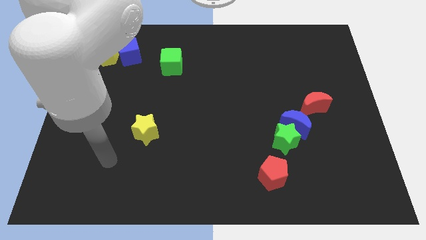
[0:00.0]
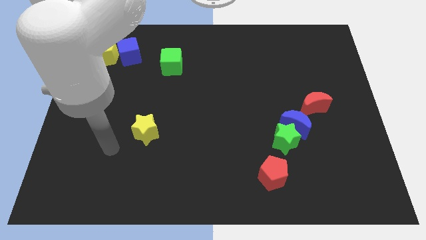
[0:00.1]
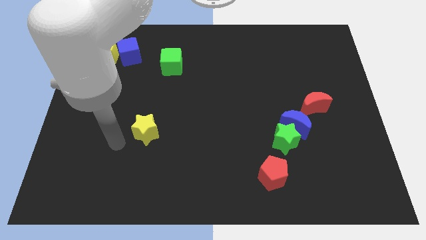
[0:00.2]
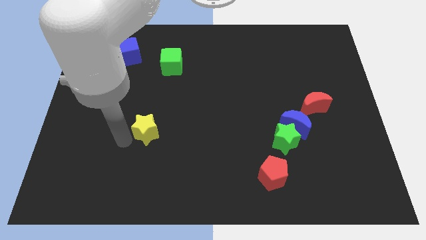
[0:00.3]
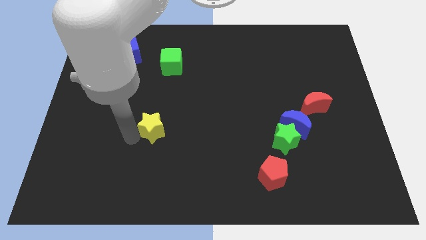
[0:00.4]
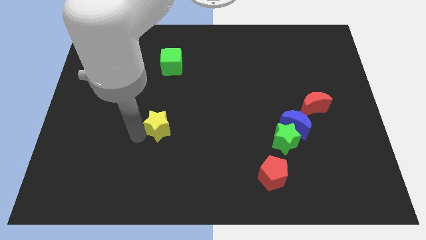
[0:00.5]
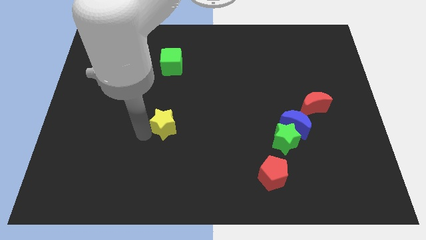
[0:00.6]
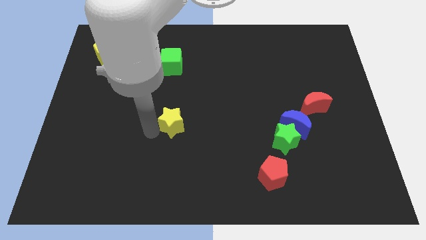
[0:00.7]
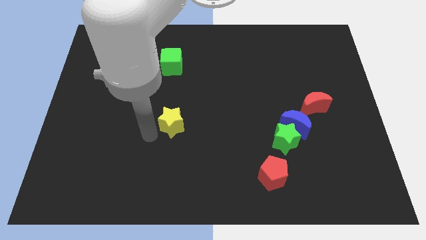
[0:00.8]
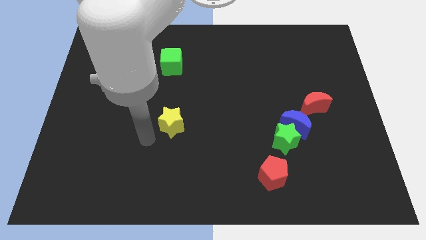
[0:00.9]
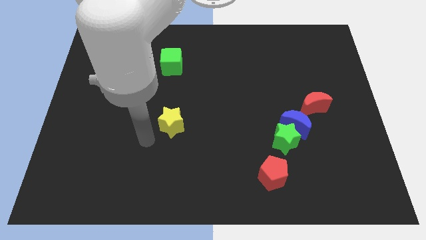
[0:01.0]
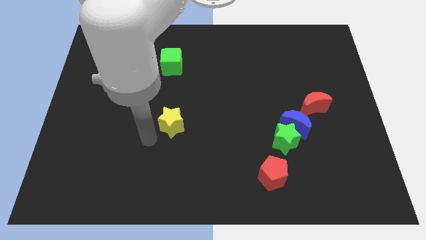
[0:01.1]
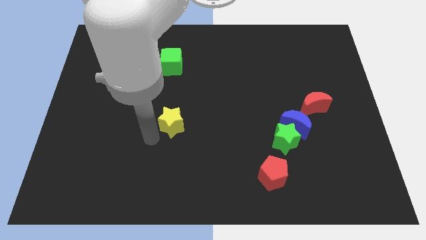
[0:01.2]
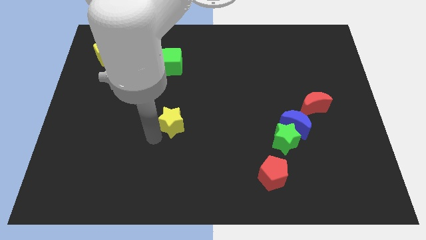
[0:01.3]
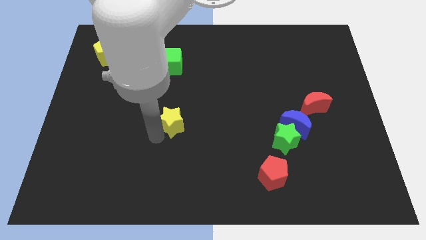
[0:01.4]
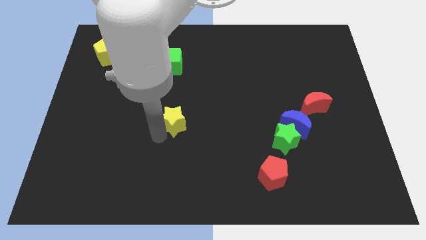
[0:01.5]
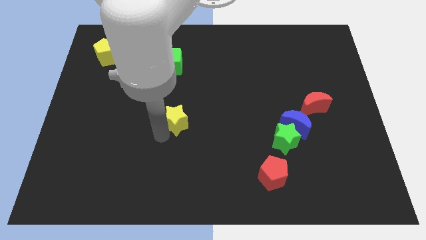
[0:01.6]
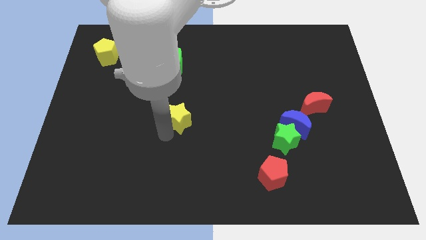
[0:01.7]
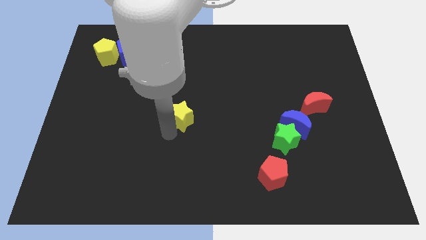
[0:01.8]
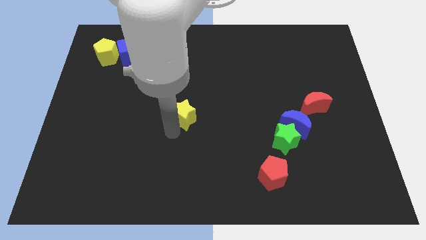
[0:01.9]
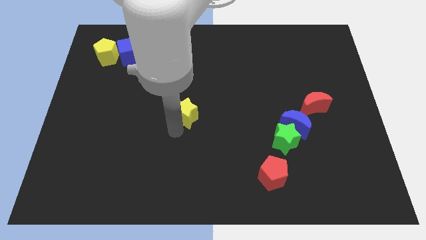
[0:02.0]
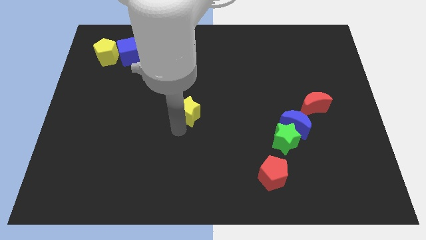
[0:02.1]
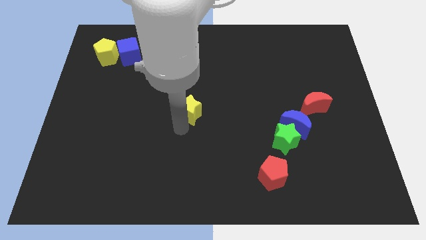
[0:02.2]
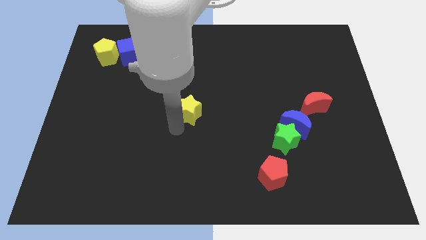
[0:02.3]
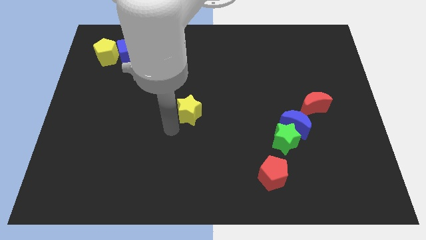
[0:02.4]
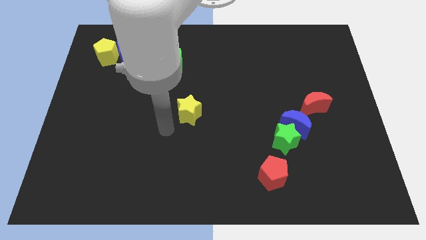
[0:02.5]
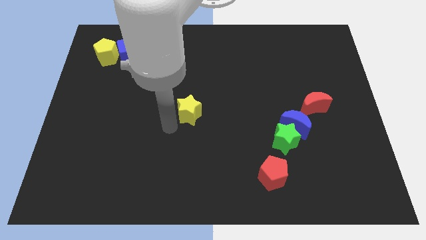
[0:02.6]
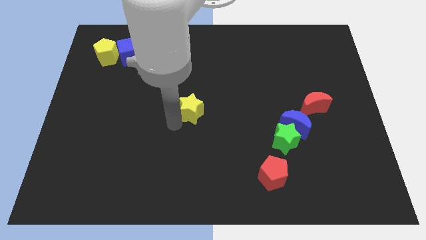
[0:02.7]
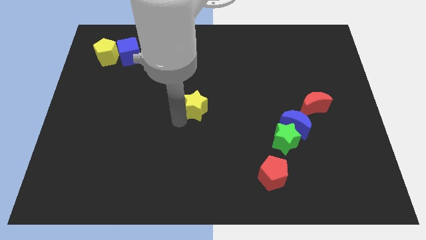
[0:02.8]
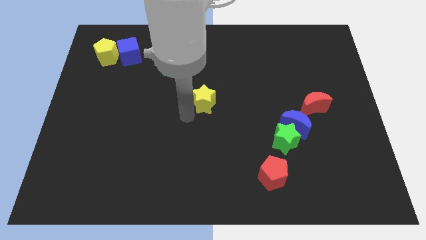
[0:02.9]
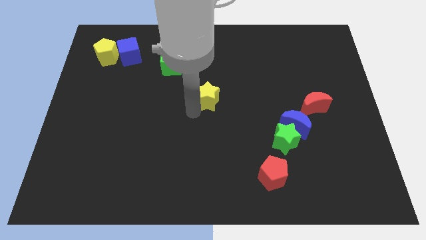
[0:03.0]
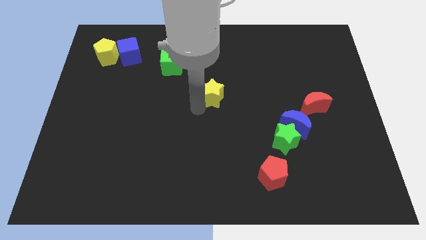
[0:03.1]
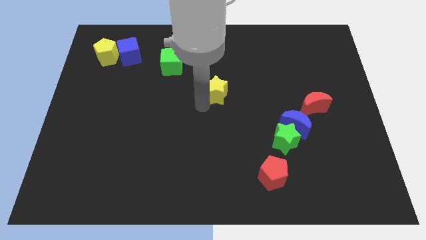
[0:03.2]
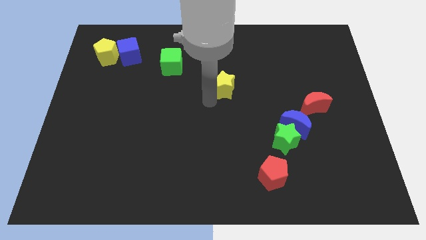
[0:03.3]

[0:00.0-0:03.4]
slide the yellow star up and then right

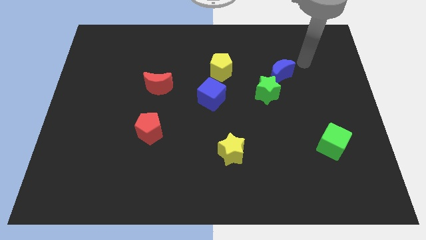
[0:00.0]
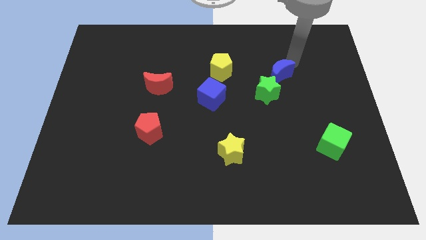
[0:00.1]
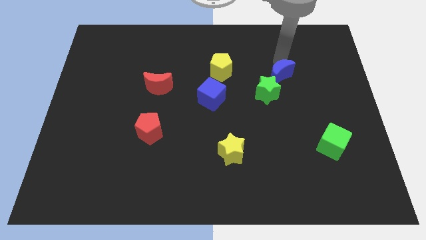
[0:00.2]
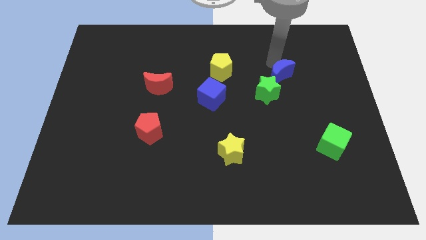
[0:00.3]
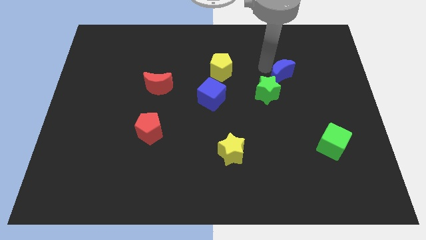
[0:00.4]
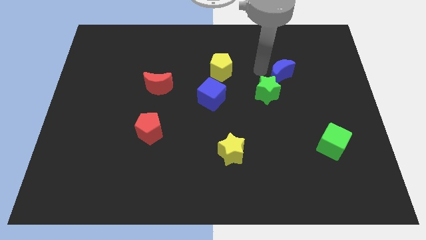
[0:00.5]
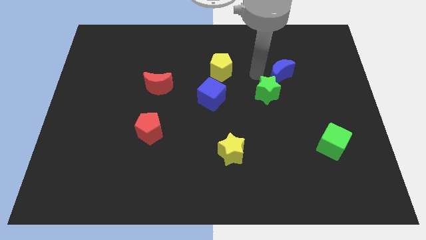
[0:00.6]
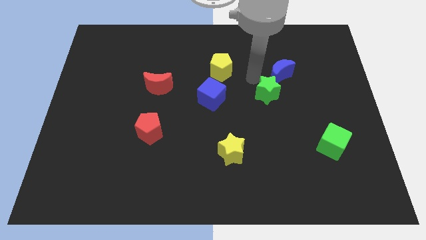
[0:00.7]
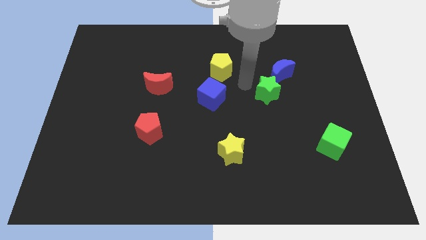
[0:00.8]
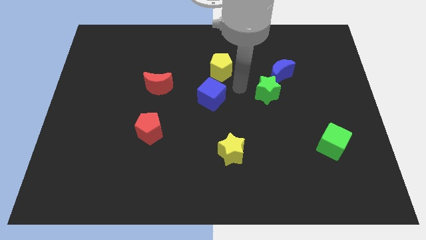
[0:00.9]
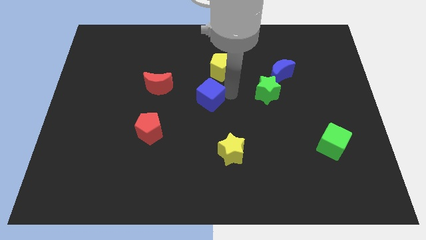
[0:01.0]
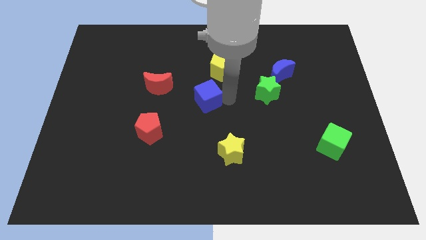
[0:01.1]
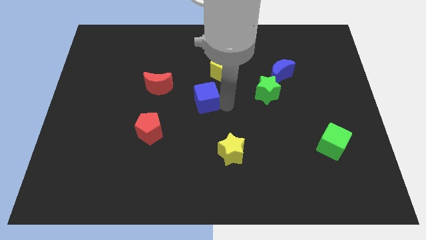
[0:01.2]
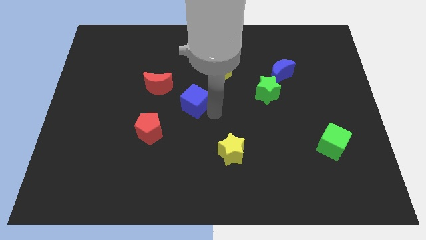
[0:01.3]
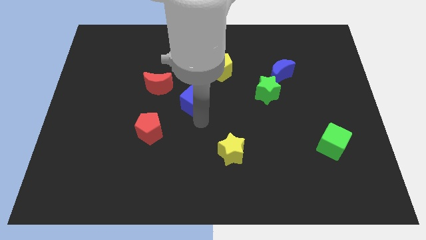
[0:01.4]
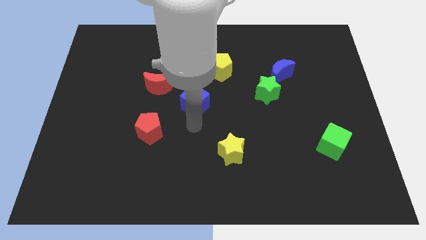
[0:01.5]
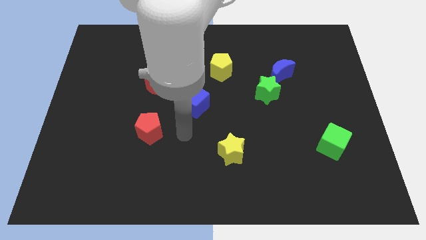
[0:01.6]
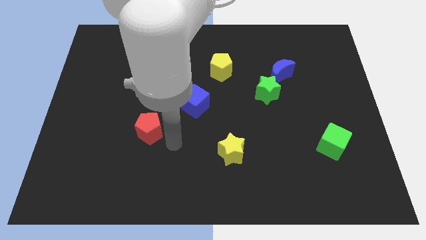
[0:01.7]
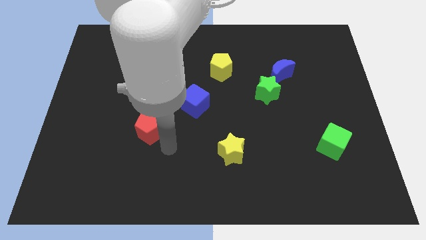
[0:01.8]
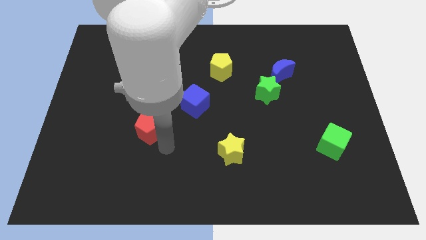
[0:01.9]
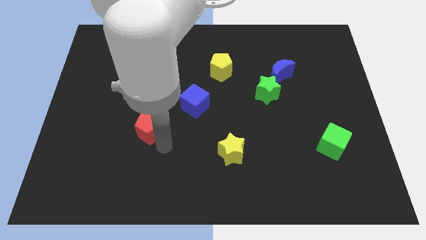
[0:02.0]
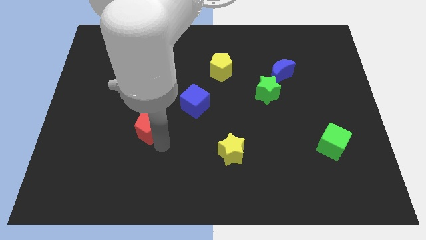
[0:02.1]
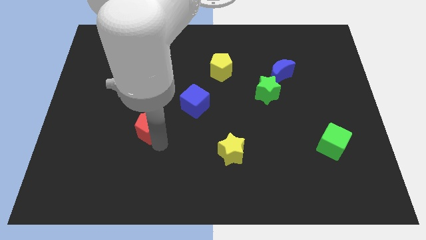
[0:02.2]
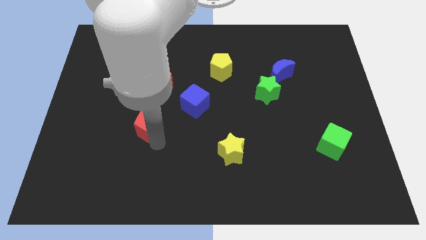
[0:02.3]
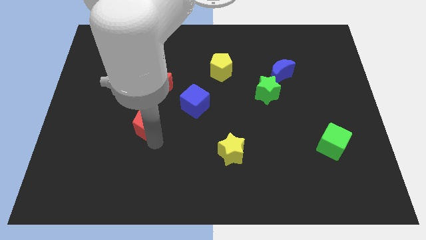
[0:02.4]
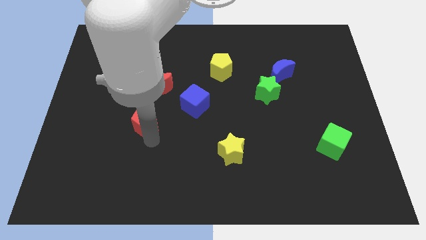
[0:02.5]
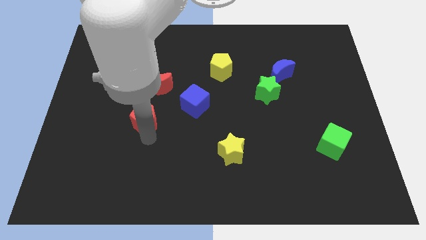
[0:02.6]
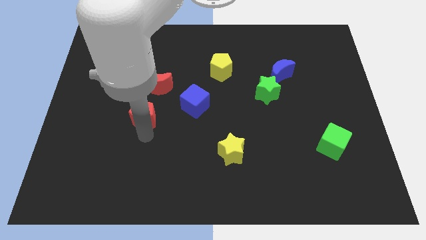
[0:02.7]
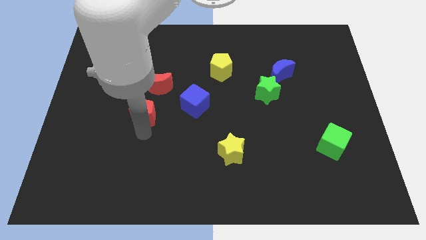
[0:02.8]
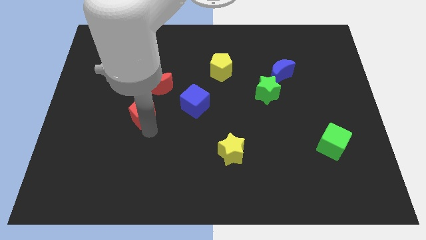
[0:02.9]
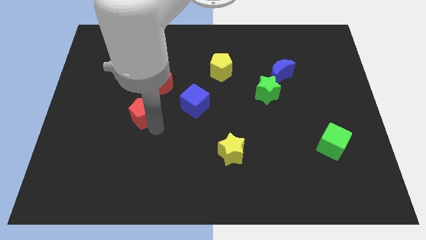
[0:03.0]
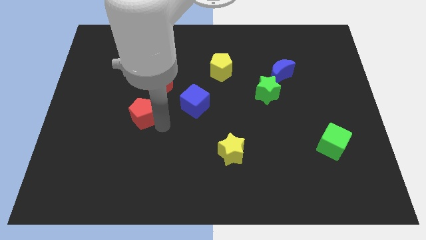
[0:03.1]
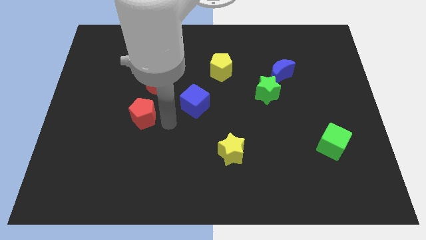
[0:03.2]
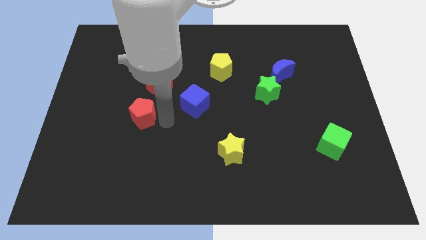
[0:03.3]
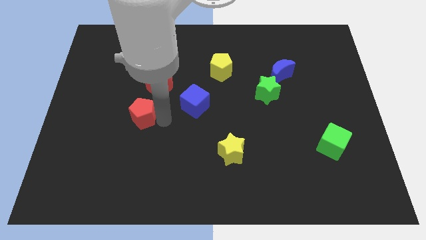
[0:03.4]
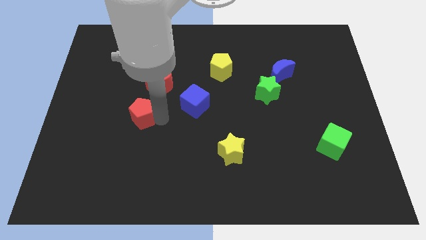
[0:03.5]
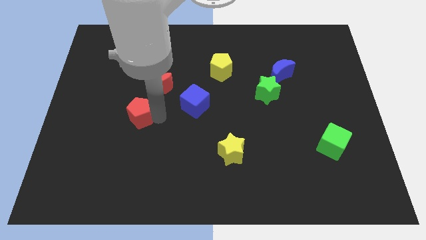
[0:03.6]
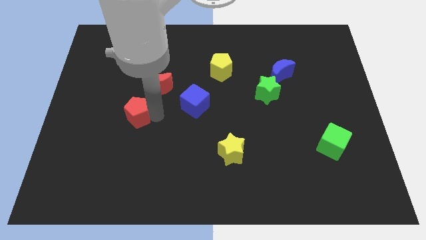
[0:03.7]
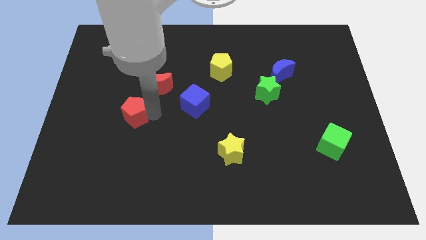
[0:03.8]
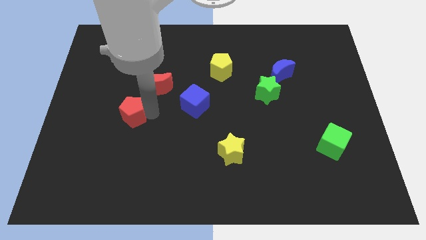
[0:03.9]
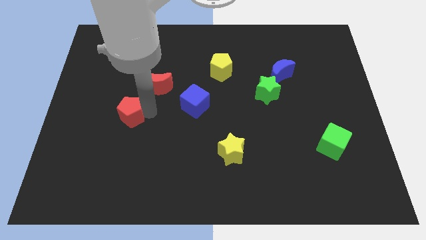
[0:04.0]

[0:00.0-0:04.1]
slightly push the red pentagon diagonally upwards and left

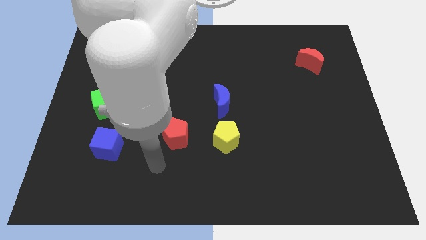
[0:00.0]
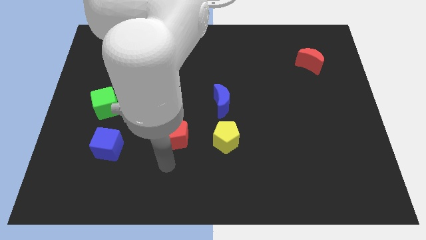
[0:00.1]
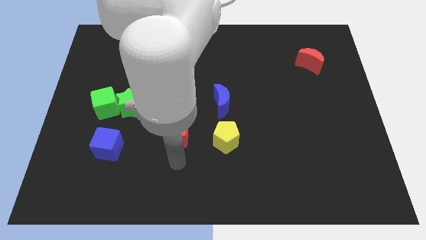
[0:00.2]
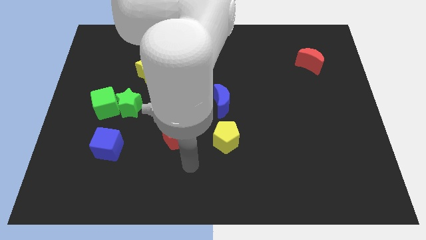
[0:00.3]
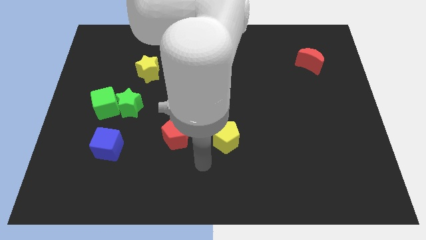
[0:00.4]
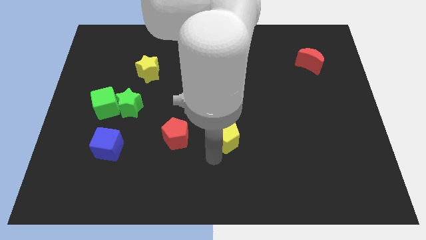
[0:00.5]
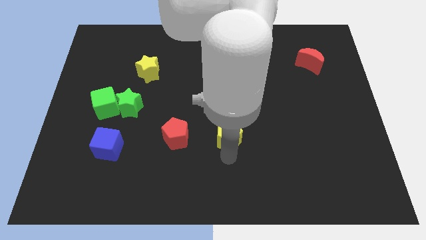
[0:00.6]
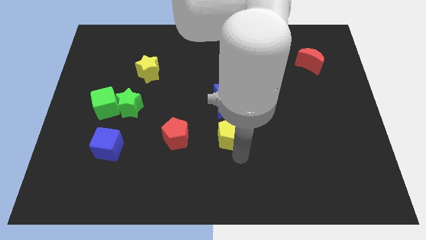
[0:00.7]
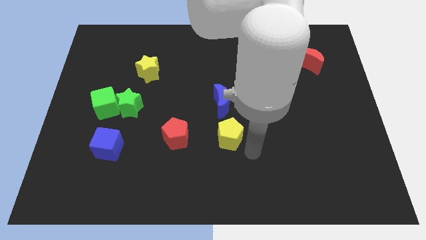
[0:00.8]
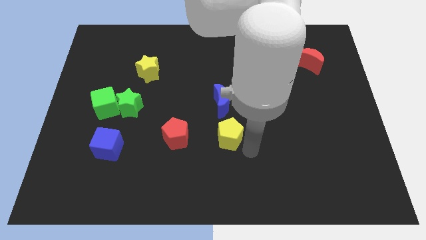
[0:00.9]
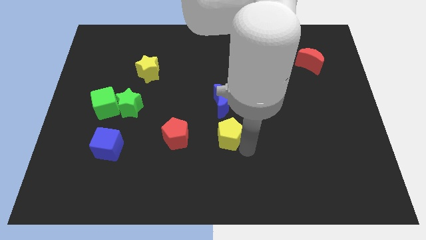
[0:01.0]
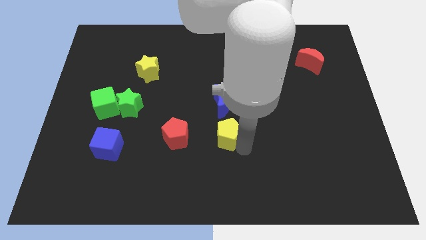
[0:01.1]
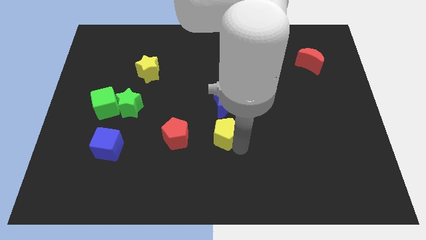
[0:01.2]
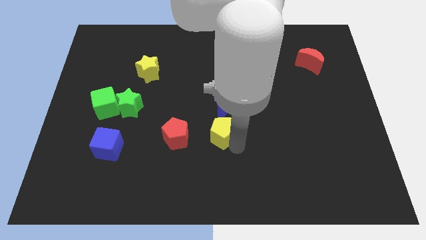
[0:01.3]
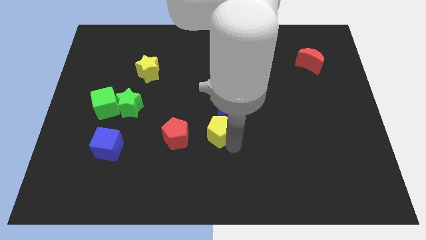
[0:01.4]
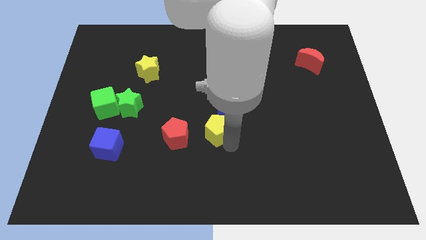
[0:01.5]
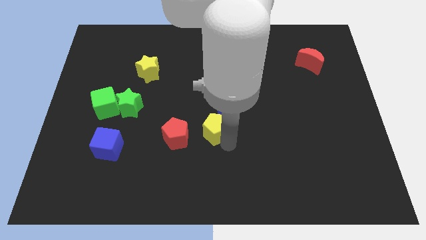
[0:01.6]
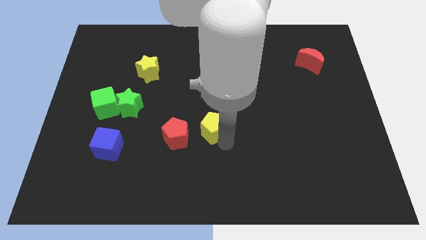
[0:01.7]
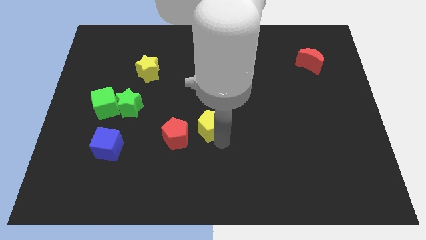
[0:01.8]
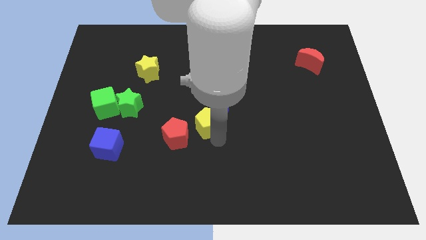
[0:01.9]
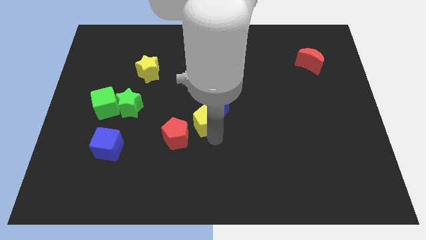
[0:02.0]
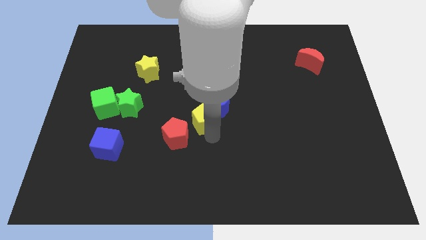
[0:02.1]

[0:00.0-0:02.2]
slightly move the yellow pentagon upwards and left
